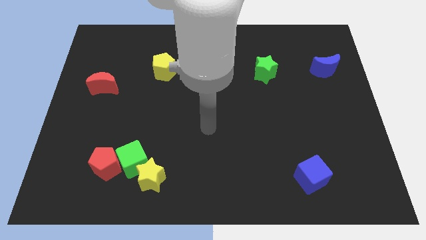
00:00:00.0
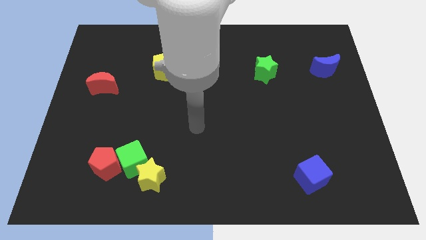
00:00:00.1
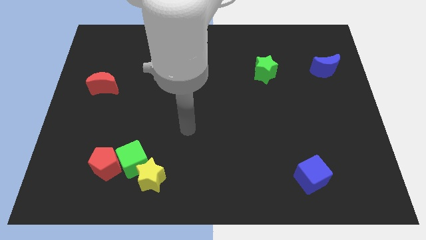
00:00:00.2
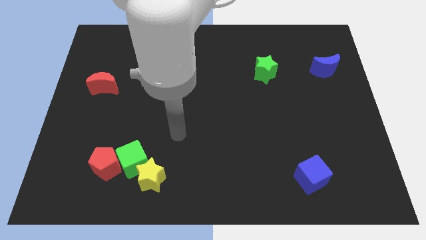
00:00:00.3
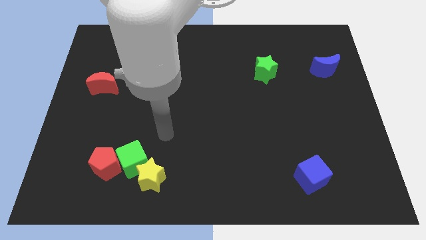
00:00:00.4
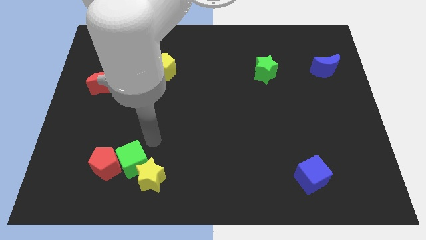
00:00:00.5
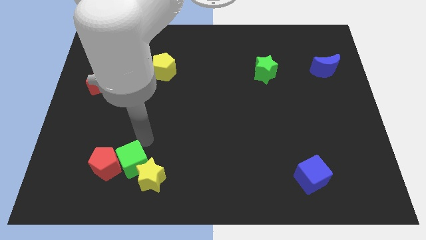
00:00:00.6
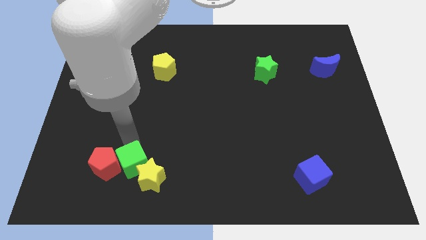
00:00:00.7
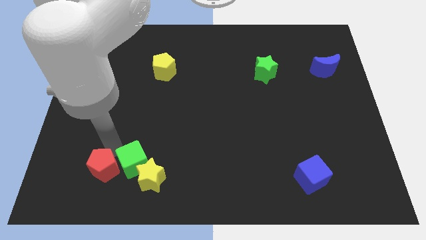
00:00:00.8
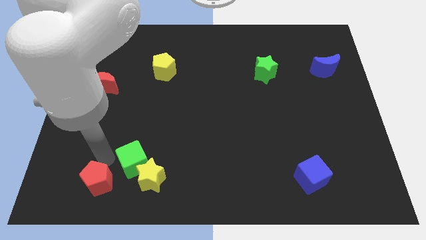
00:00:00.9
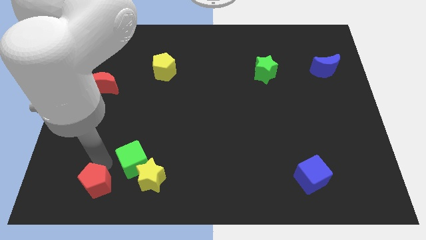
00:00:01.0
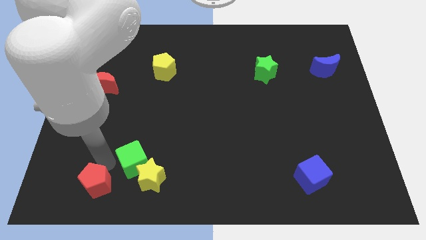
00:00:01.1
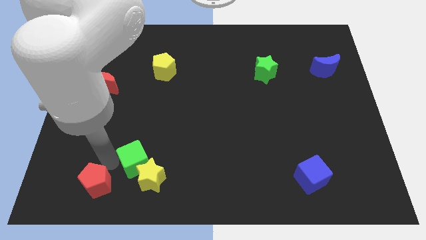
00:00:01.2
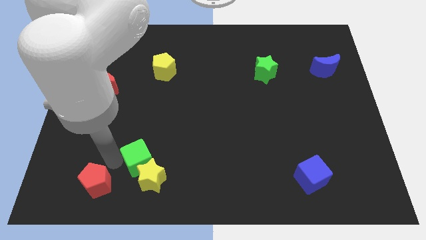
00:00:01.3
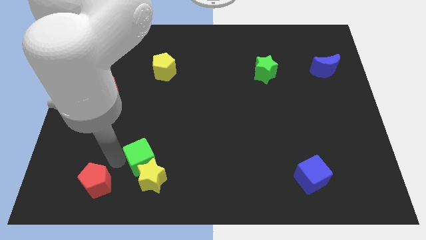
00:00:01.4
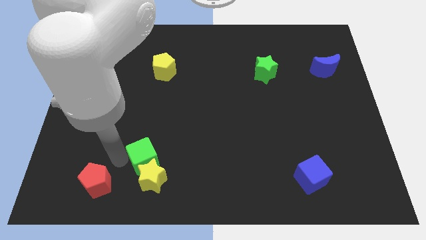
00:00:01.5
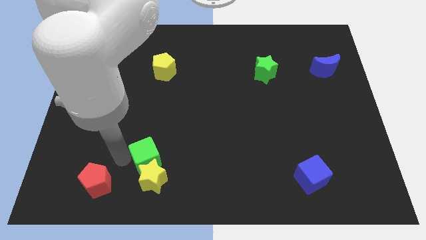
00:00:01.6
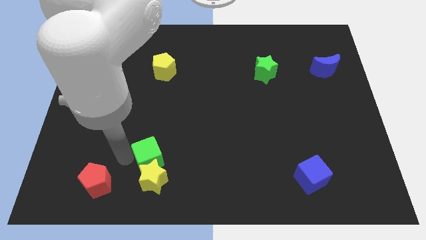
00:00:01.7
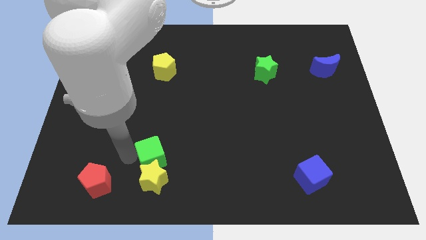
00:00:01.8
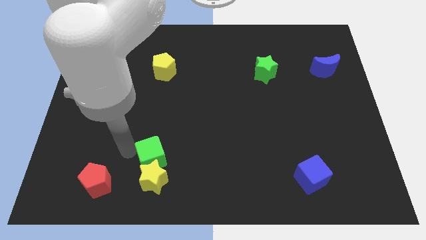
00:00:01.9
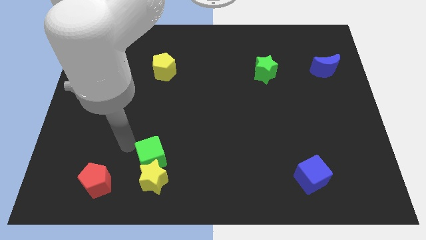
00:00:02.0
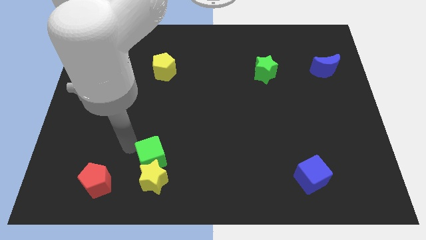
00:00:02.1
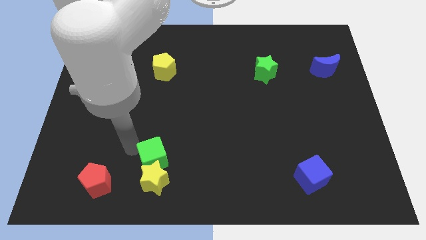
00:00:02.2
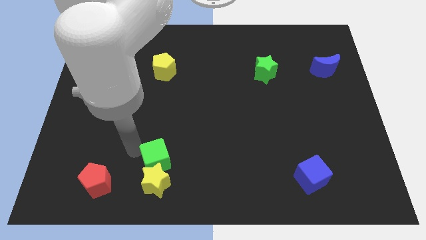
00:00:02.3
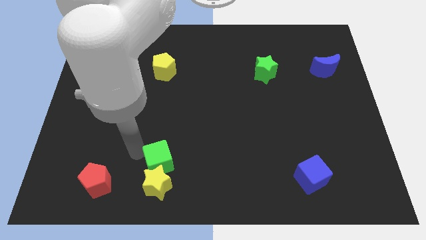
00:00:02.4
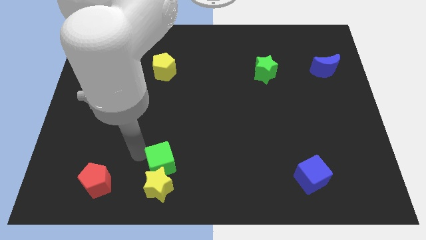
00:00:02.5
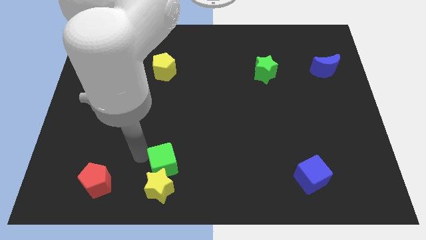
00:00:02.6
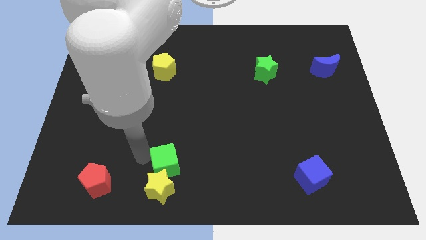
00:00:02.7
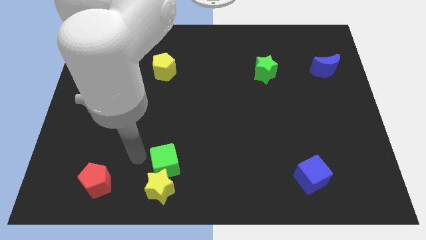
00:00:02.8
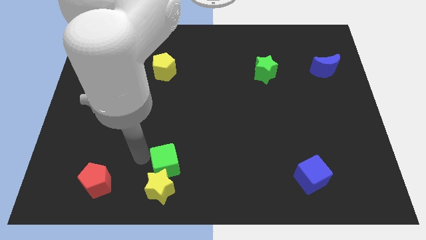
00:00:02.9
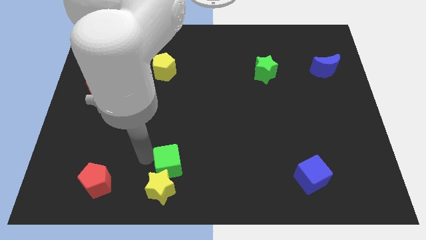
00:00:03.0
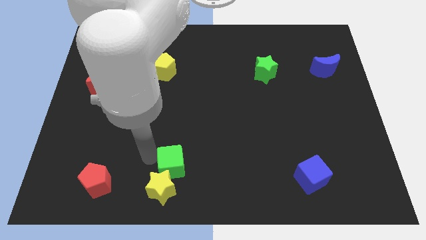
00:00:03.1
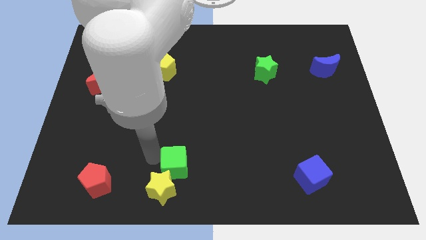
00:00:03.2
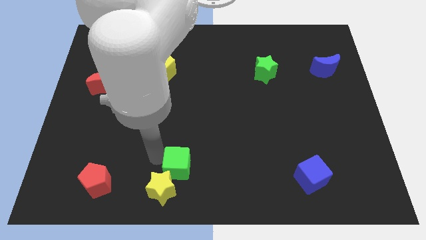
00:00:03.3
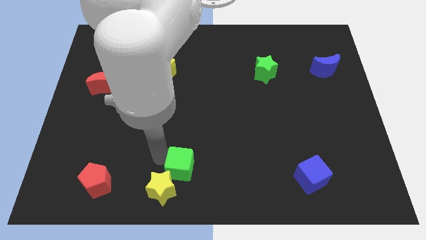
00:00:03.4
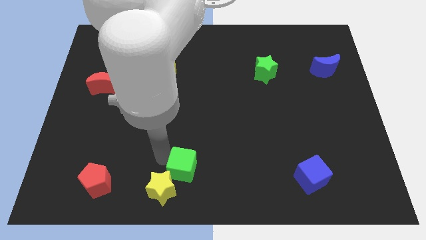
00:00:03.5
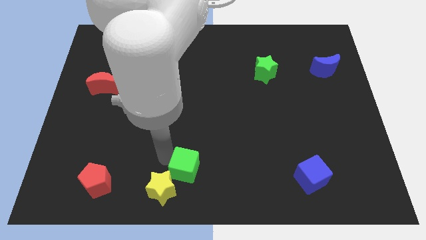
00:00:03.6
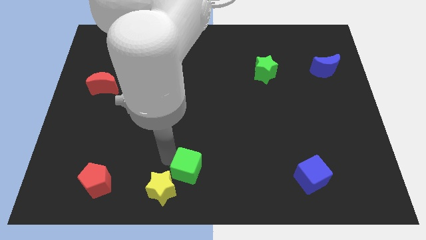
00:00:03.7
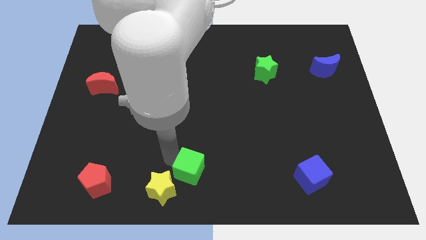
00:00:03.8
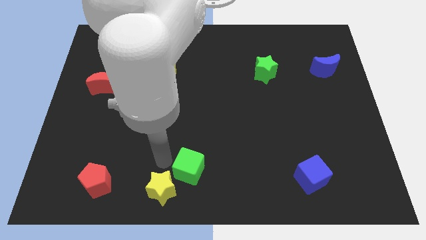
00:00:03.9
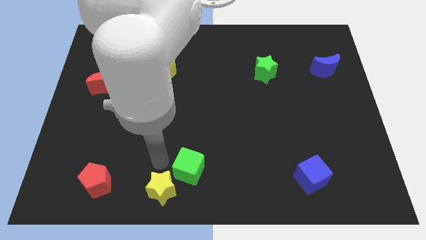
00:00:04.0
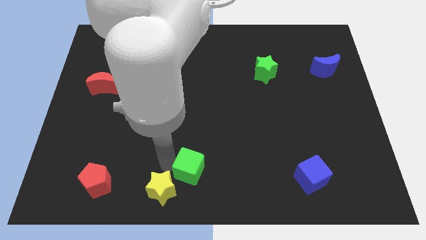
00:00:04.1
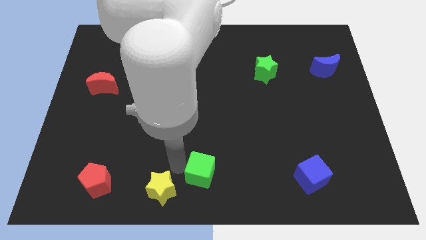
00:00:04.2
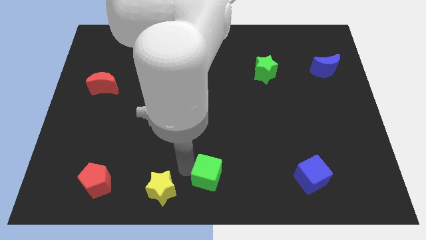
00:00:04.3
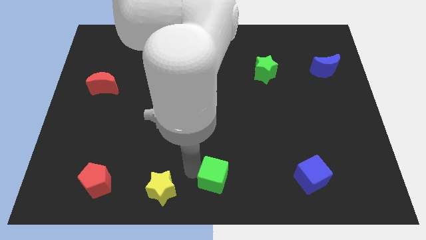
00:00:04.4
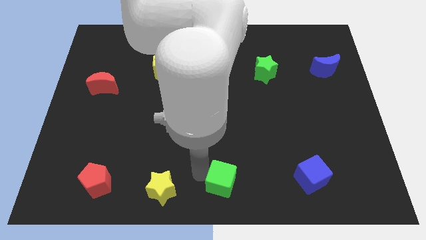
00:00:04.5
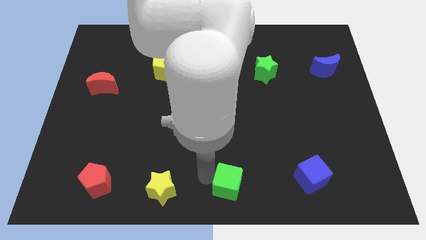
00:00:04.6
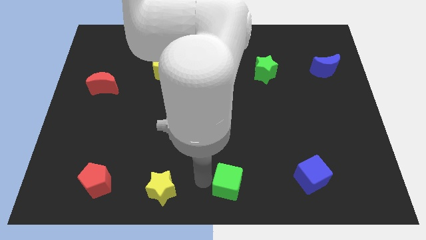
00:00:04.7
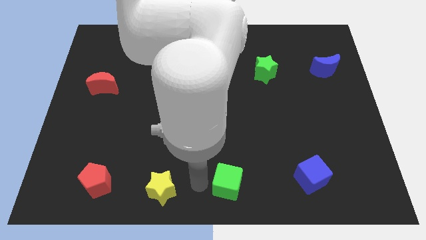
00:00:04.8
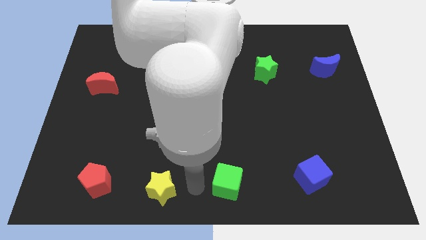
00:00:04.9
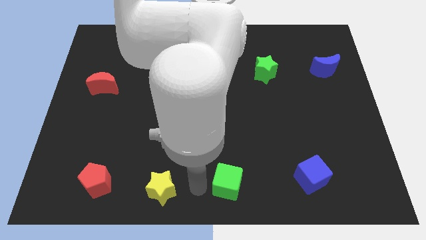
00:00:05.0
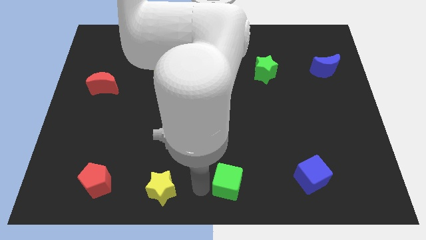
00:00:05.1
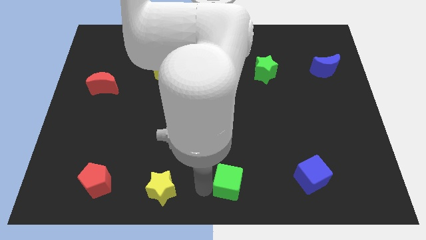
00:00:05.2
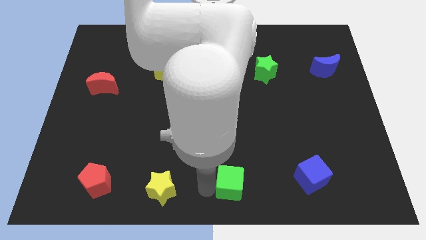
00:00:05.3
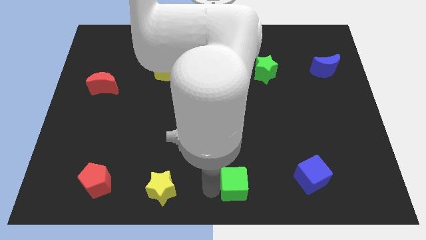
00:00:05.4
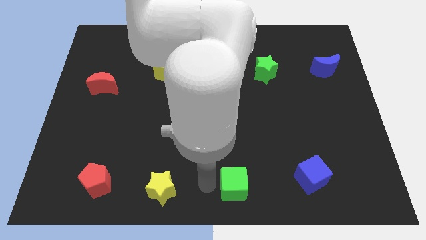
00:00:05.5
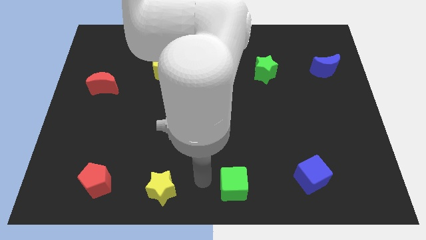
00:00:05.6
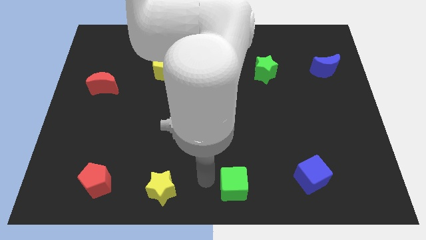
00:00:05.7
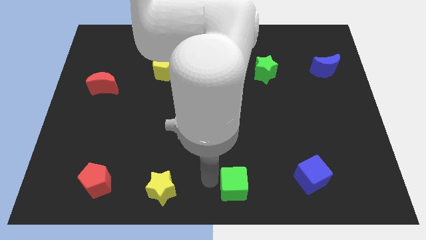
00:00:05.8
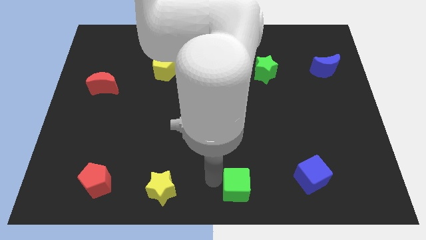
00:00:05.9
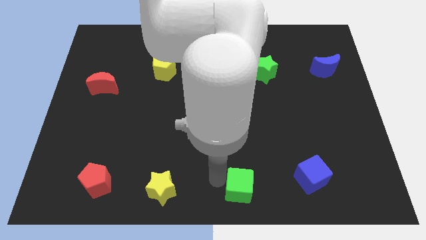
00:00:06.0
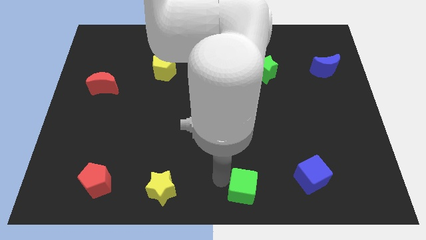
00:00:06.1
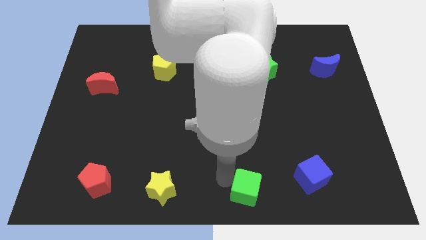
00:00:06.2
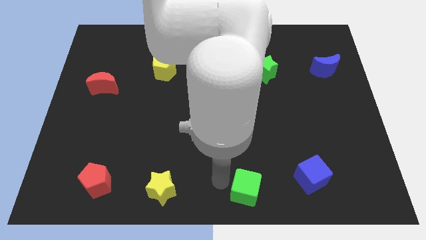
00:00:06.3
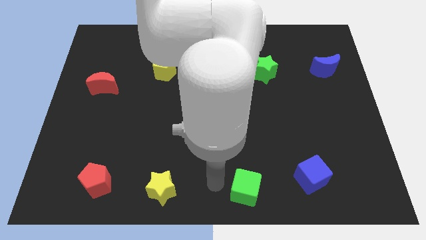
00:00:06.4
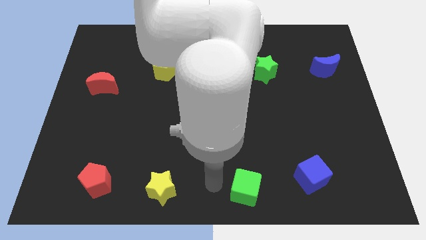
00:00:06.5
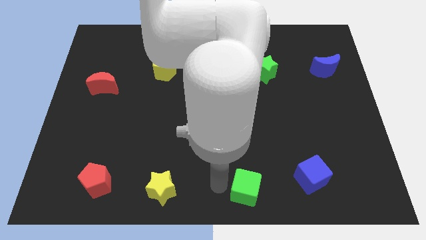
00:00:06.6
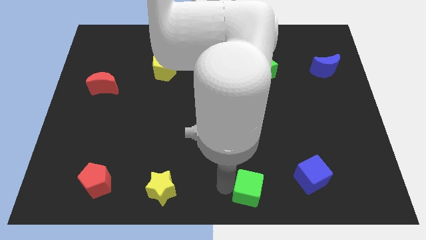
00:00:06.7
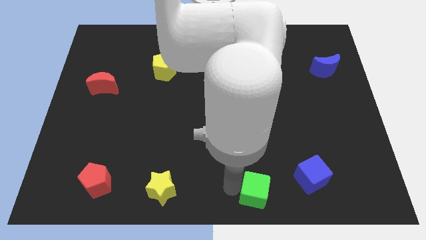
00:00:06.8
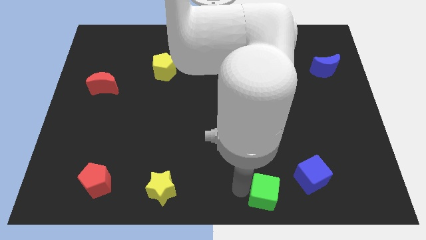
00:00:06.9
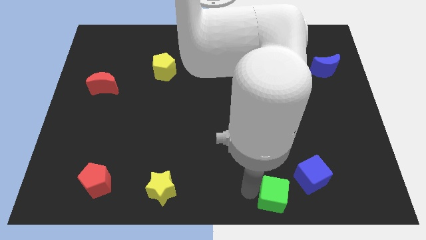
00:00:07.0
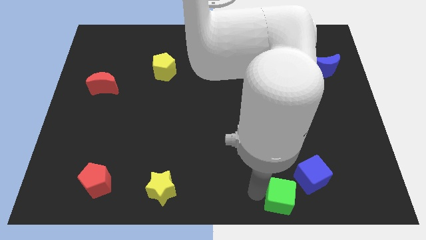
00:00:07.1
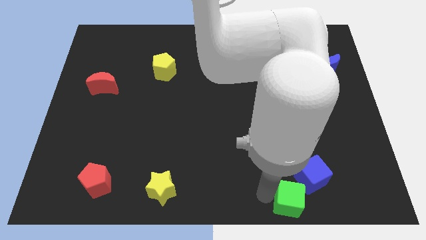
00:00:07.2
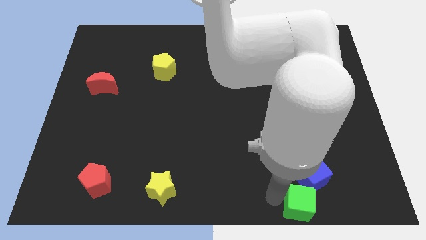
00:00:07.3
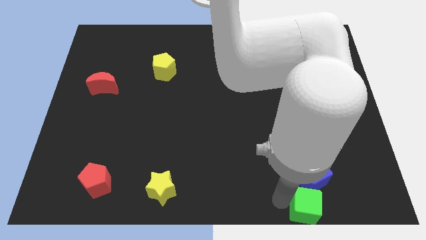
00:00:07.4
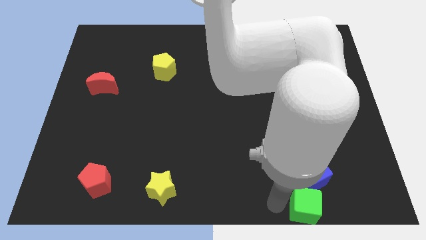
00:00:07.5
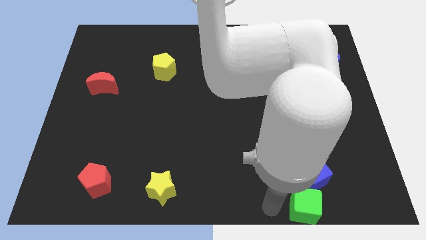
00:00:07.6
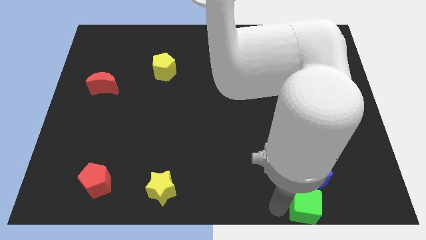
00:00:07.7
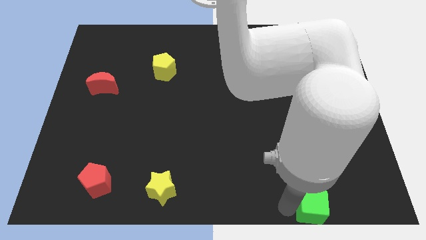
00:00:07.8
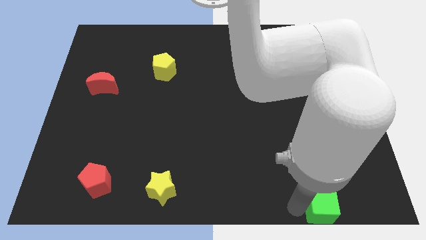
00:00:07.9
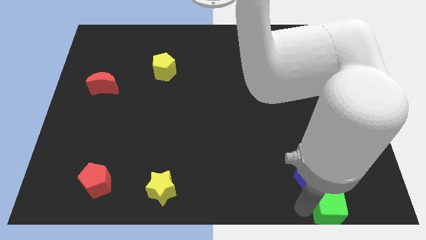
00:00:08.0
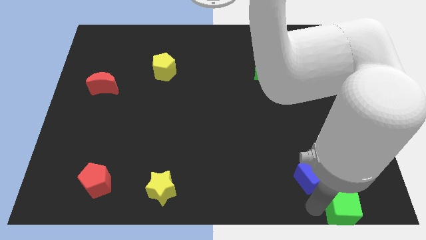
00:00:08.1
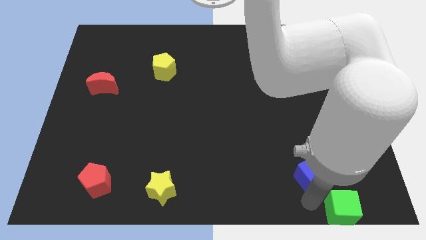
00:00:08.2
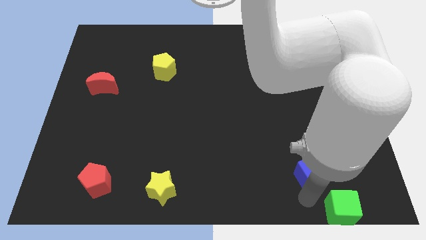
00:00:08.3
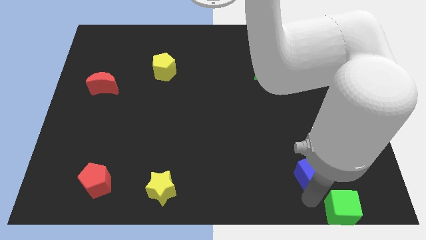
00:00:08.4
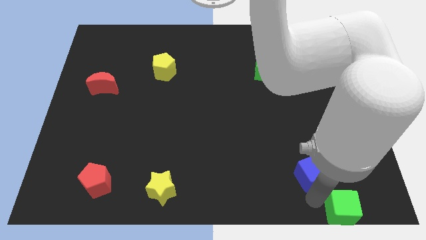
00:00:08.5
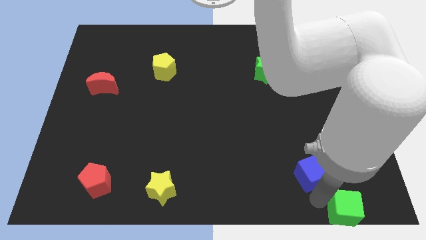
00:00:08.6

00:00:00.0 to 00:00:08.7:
push the green cube to the lower right corner
